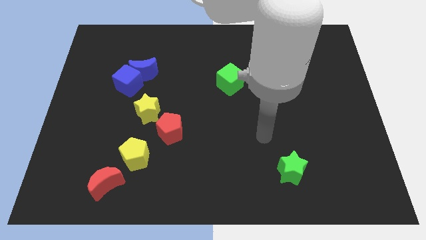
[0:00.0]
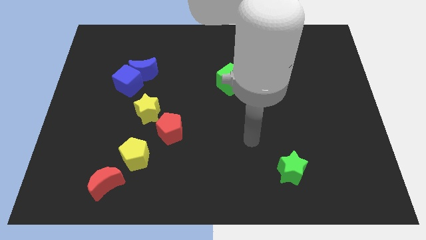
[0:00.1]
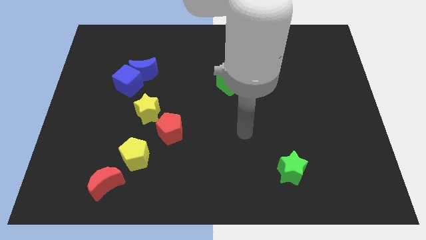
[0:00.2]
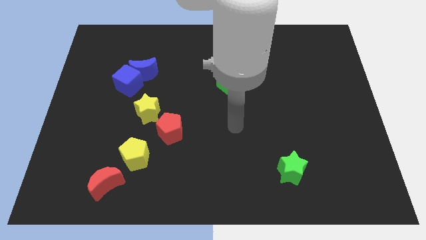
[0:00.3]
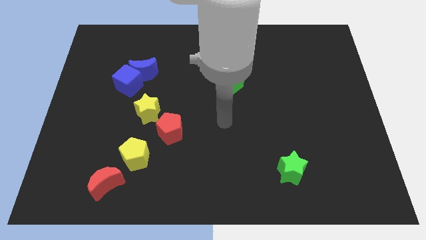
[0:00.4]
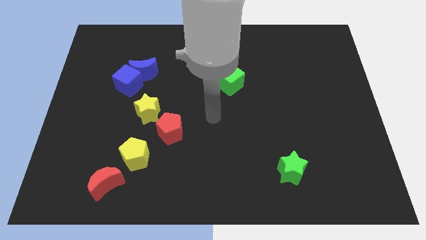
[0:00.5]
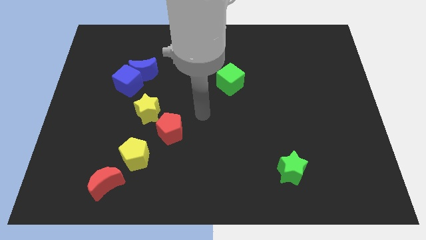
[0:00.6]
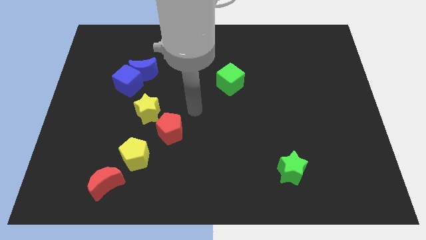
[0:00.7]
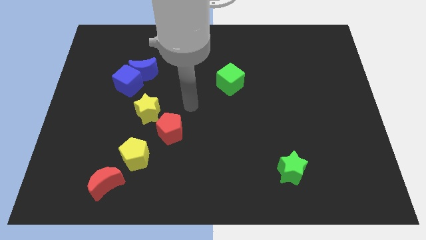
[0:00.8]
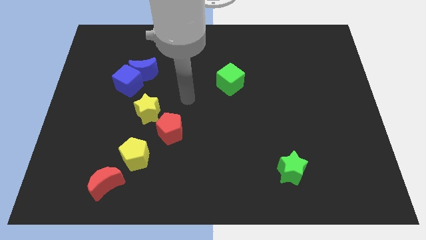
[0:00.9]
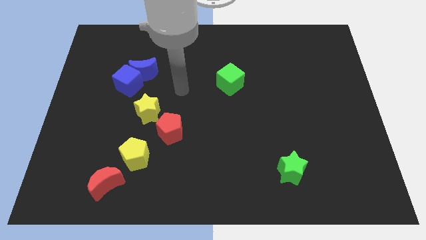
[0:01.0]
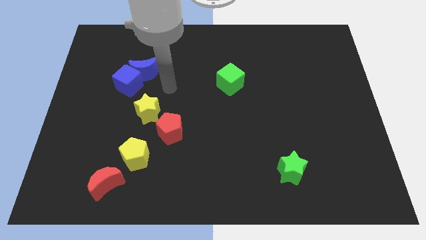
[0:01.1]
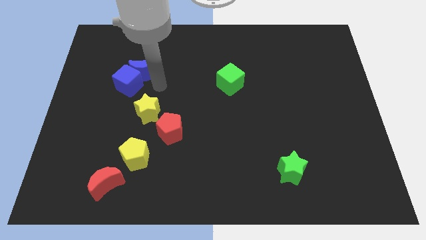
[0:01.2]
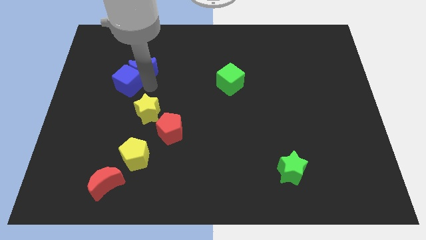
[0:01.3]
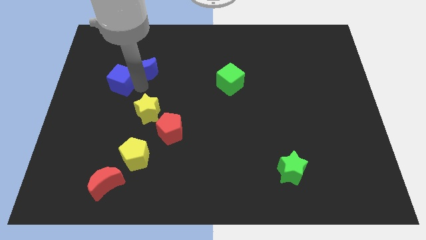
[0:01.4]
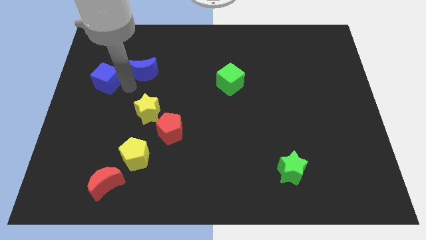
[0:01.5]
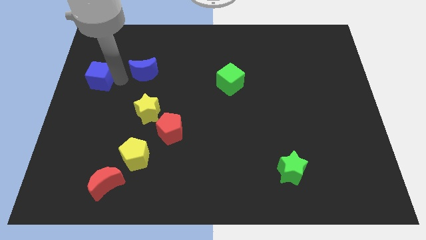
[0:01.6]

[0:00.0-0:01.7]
separate the blue moon from the blue cube

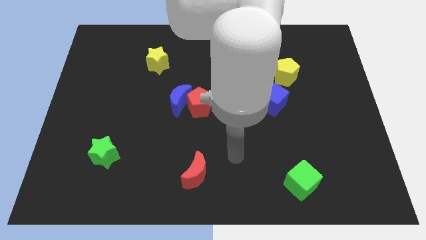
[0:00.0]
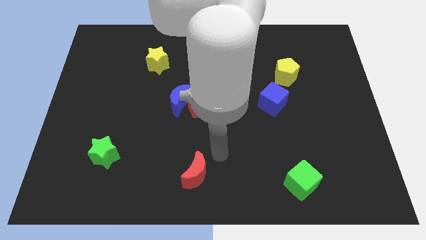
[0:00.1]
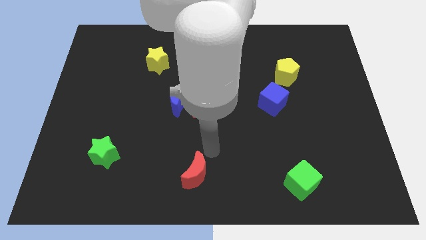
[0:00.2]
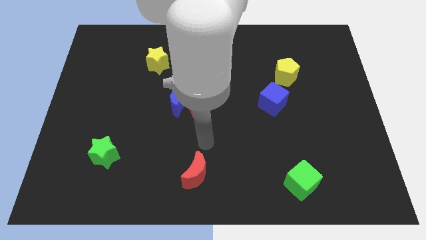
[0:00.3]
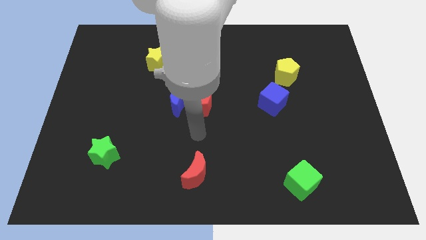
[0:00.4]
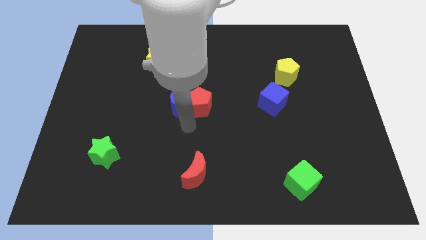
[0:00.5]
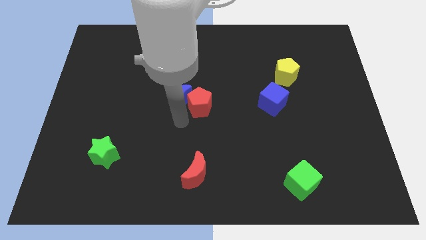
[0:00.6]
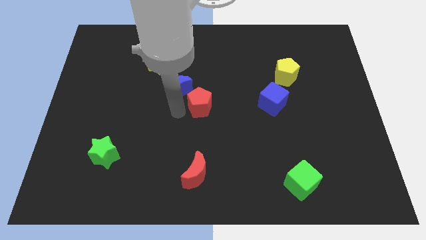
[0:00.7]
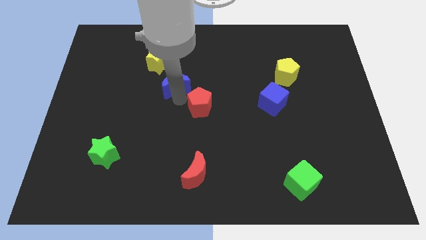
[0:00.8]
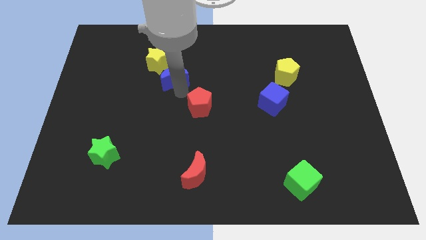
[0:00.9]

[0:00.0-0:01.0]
pull the red pentagon apart from the blue moon

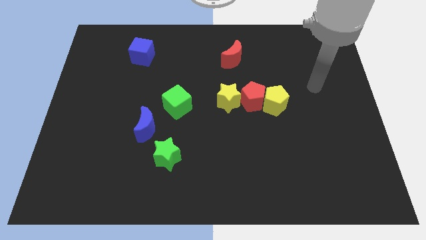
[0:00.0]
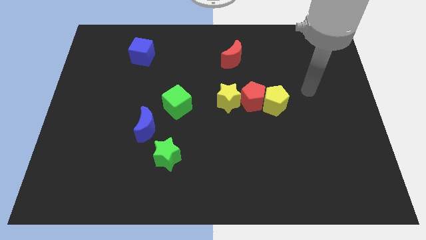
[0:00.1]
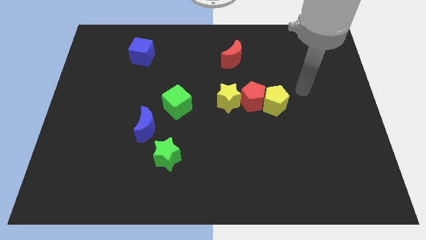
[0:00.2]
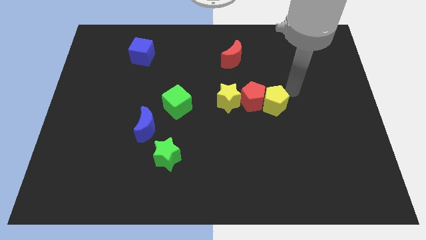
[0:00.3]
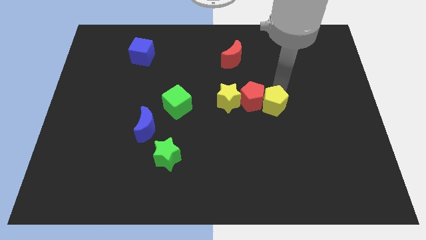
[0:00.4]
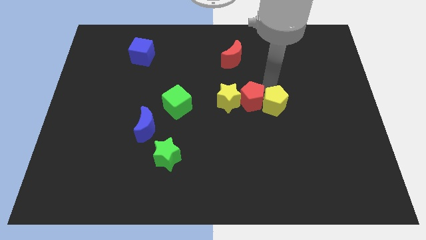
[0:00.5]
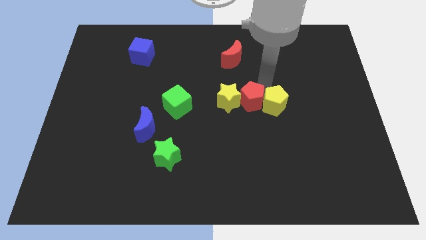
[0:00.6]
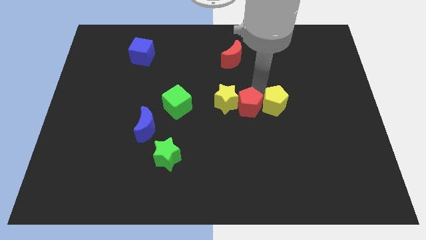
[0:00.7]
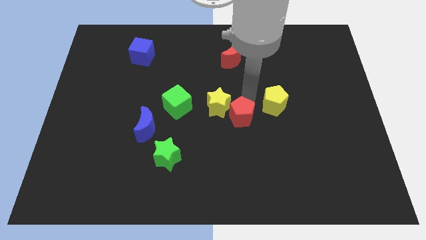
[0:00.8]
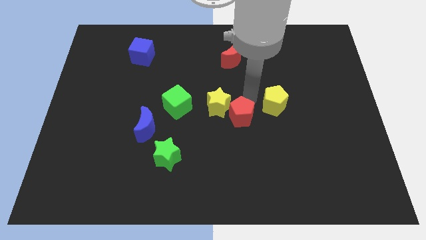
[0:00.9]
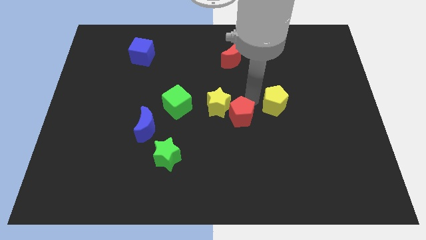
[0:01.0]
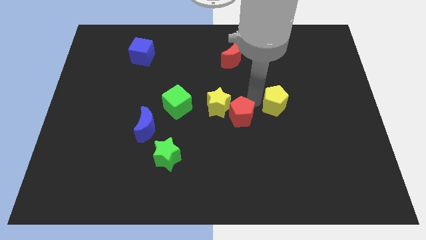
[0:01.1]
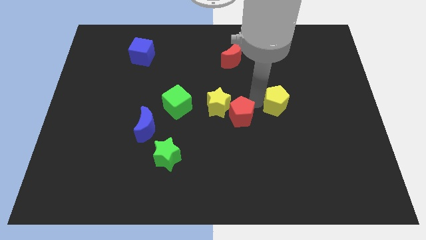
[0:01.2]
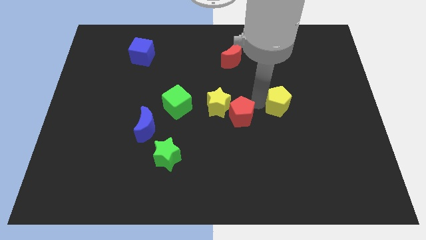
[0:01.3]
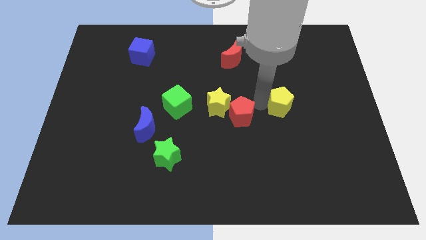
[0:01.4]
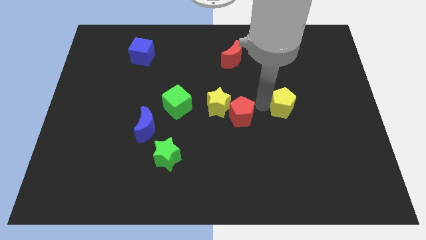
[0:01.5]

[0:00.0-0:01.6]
move the yellow pentagon away from the red pentagon

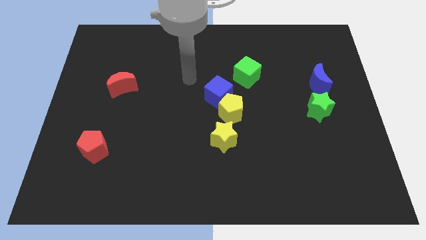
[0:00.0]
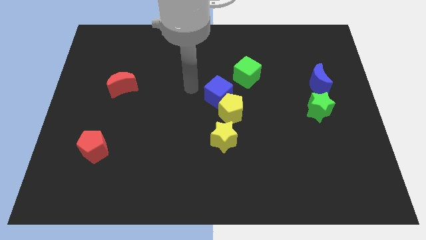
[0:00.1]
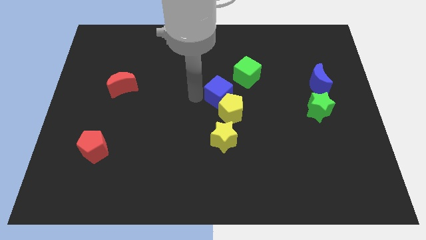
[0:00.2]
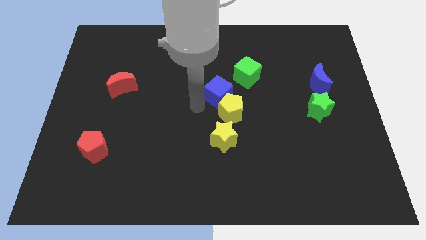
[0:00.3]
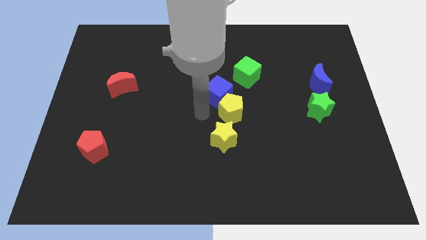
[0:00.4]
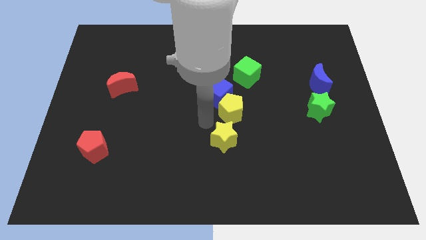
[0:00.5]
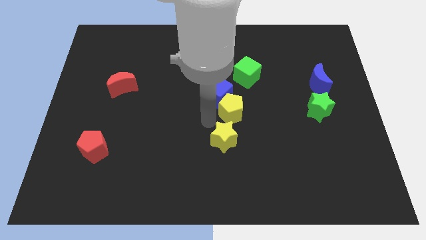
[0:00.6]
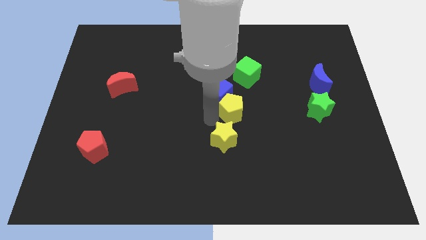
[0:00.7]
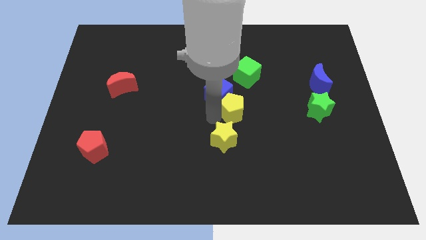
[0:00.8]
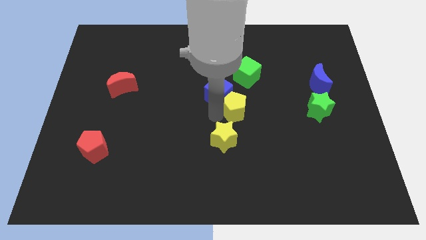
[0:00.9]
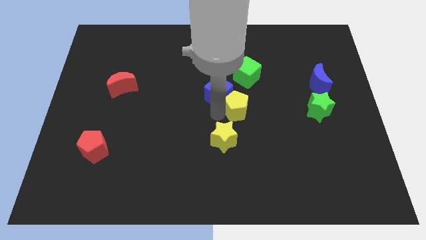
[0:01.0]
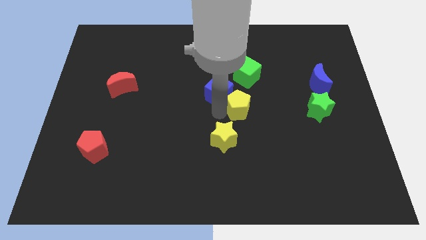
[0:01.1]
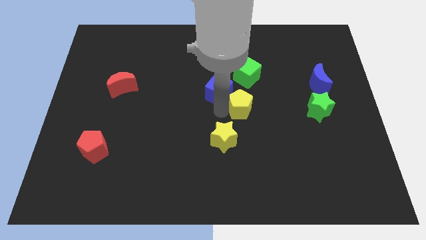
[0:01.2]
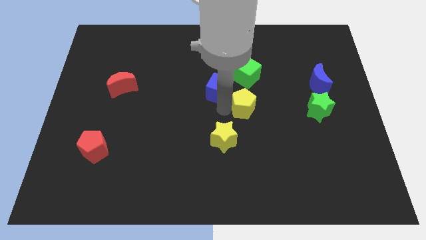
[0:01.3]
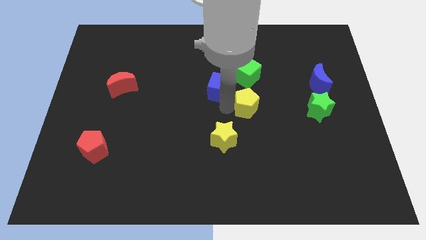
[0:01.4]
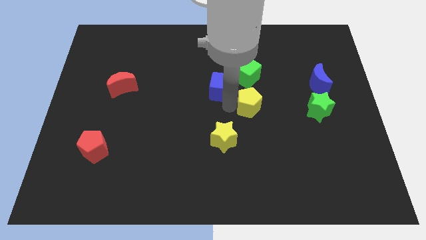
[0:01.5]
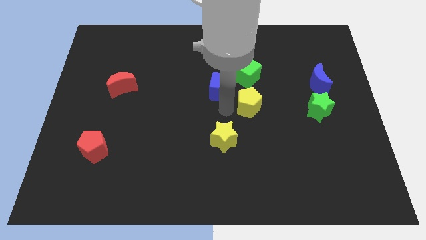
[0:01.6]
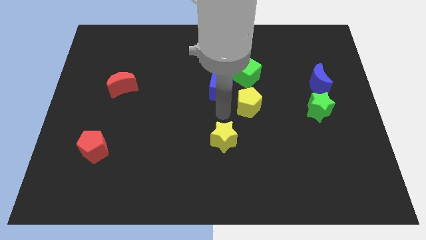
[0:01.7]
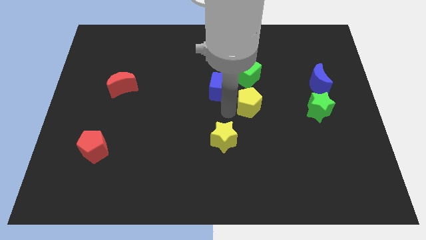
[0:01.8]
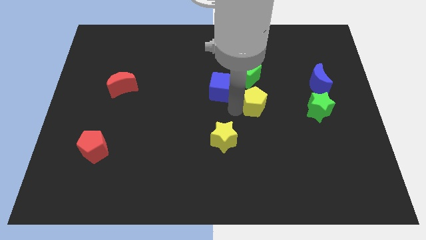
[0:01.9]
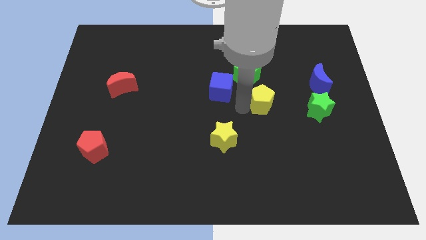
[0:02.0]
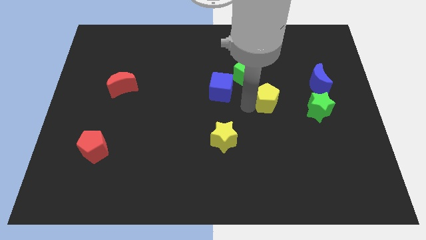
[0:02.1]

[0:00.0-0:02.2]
separate the yellow pentagon from the blue cube and yellow star

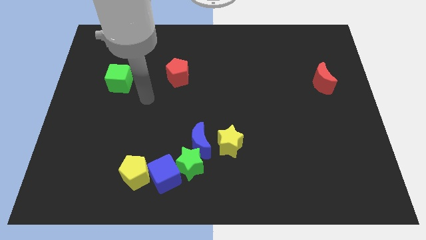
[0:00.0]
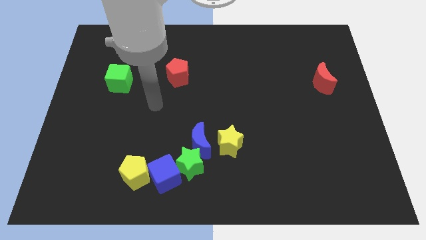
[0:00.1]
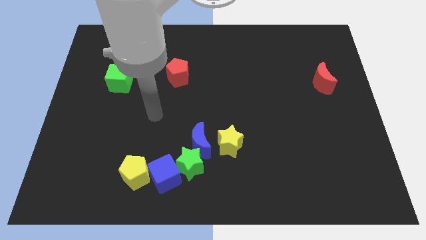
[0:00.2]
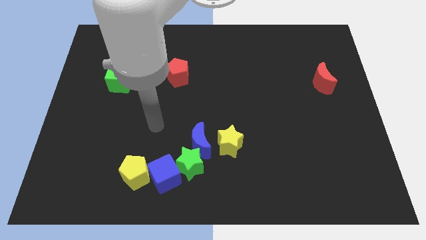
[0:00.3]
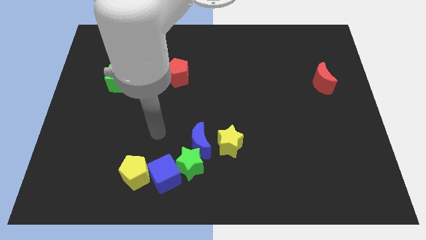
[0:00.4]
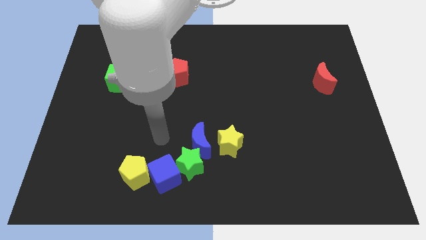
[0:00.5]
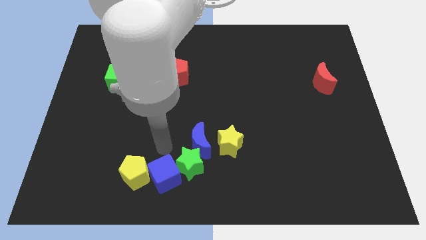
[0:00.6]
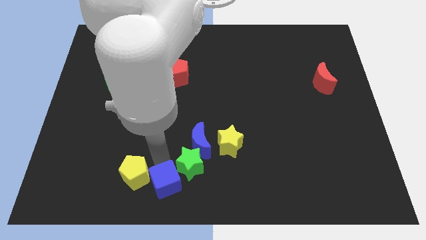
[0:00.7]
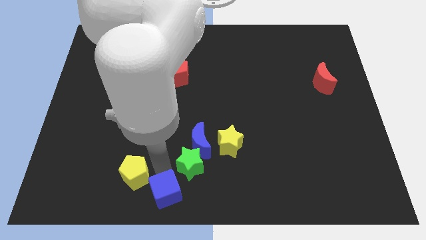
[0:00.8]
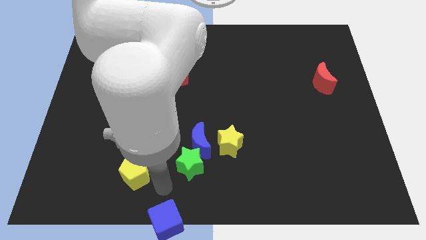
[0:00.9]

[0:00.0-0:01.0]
separate the yellow pentagon from the blue cube

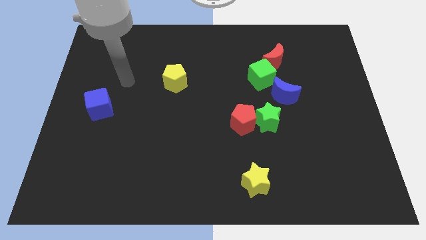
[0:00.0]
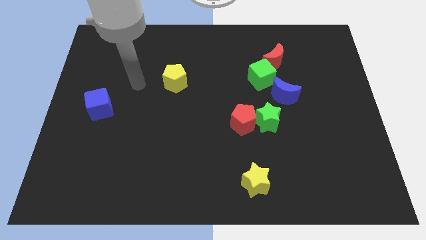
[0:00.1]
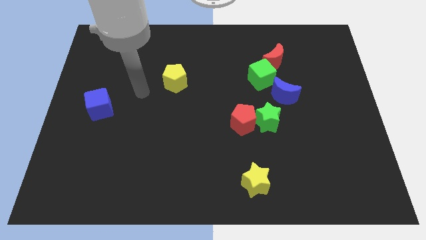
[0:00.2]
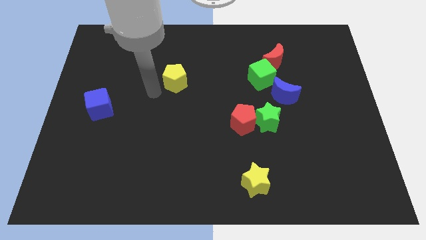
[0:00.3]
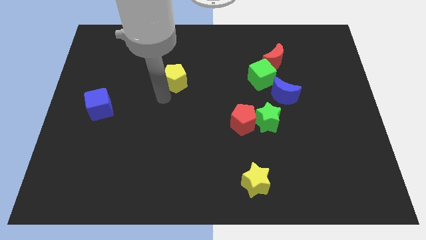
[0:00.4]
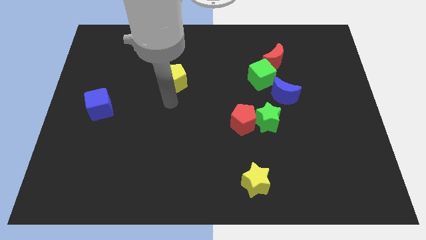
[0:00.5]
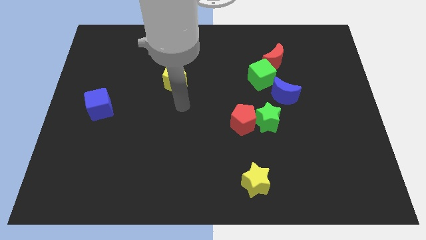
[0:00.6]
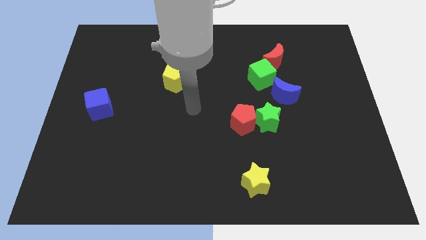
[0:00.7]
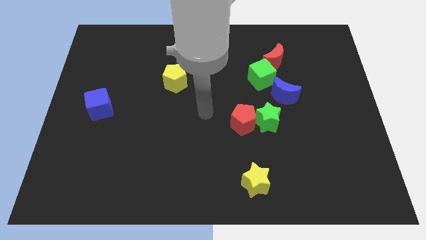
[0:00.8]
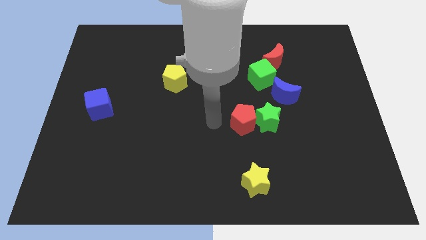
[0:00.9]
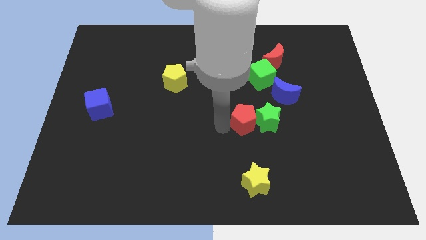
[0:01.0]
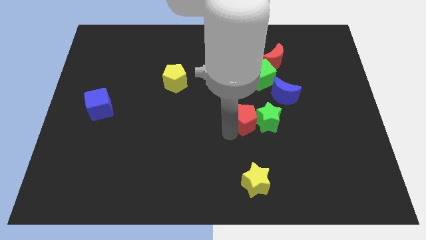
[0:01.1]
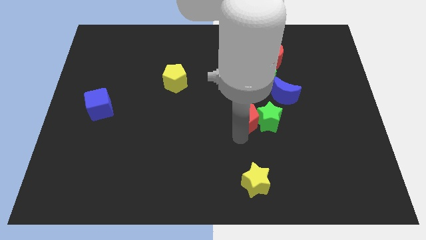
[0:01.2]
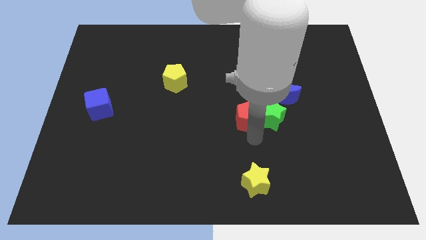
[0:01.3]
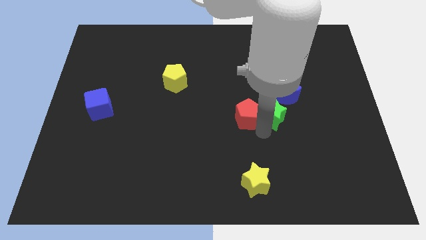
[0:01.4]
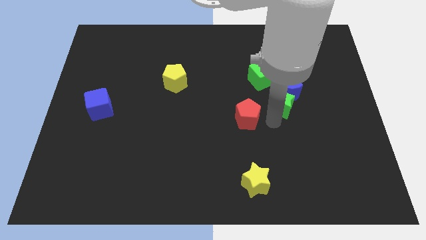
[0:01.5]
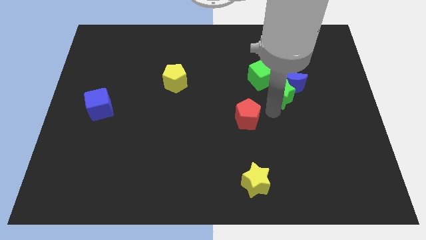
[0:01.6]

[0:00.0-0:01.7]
separate the red pentagon from the green star
